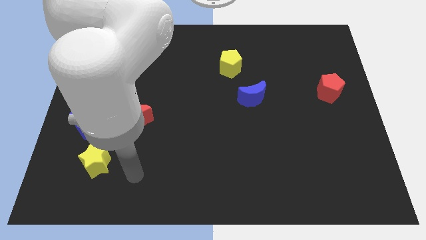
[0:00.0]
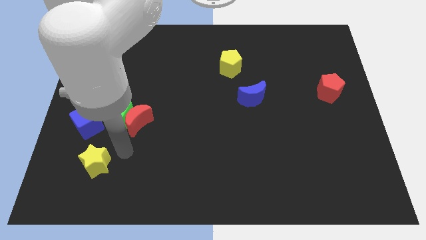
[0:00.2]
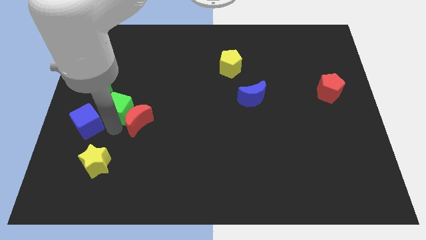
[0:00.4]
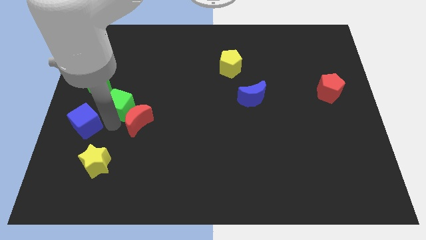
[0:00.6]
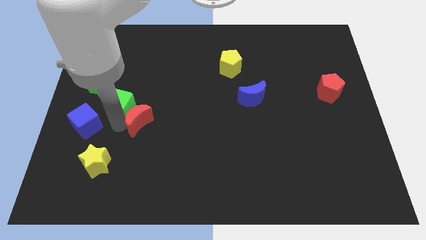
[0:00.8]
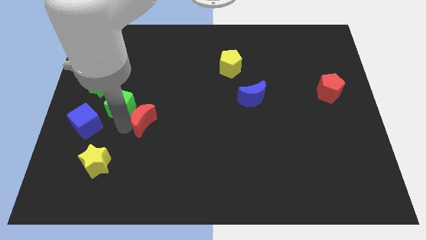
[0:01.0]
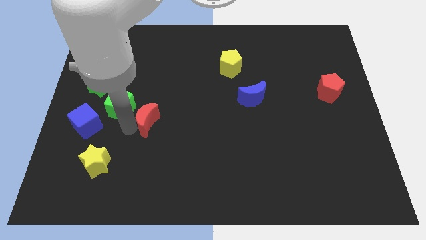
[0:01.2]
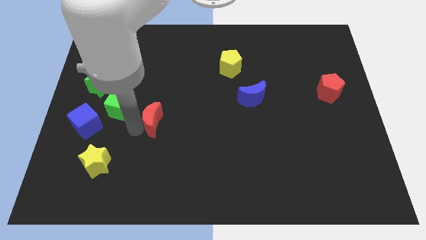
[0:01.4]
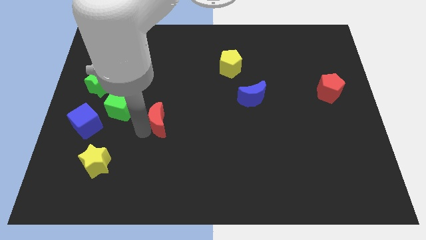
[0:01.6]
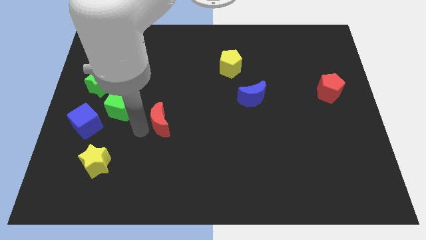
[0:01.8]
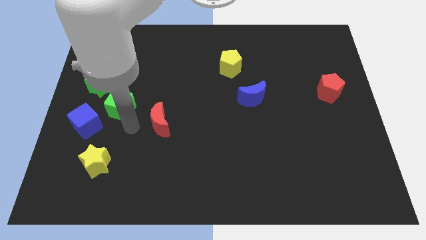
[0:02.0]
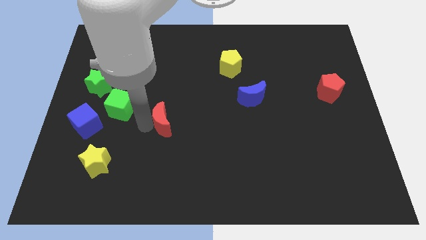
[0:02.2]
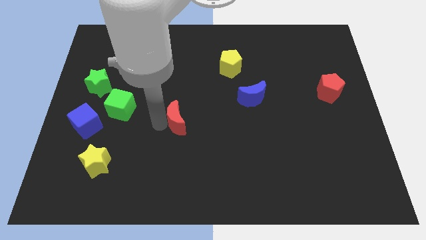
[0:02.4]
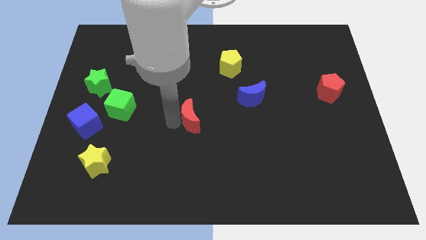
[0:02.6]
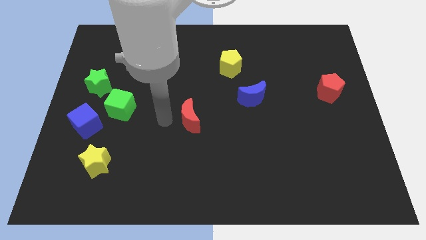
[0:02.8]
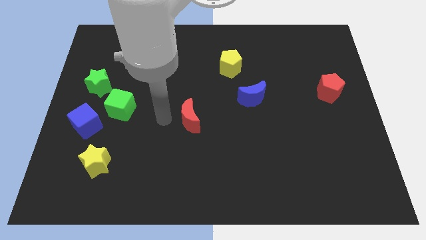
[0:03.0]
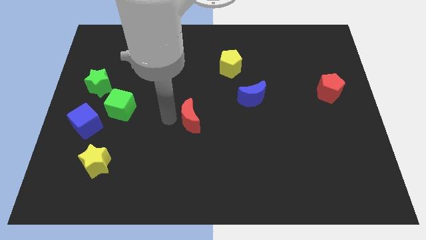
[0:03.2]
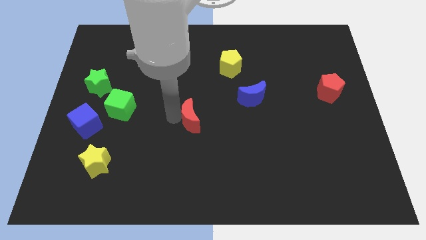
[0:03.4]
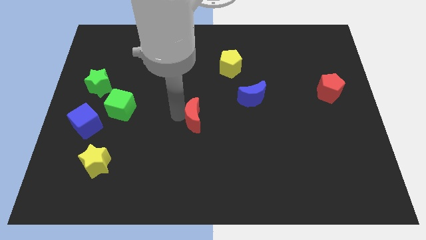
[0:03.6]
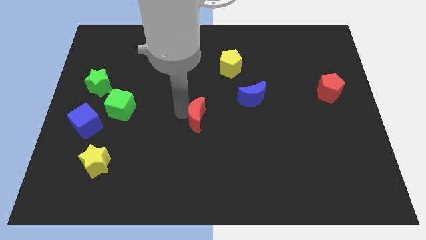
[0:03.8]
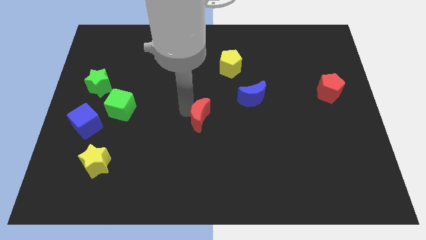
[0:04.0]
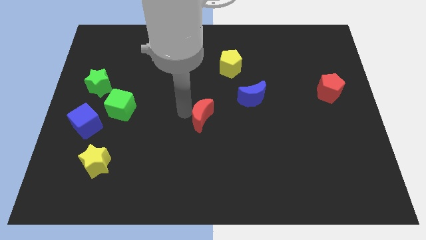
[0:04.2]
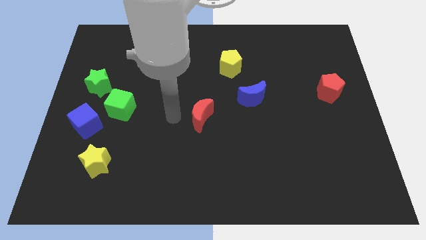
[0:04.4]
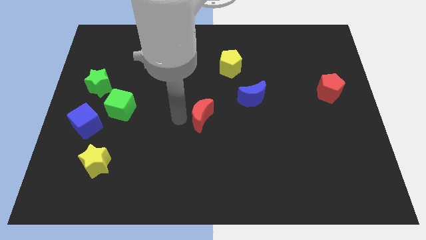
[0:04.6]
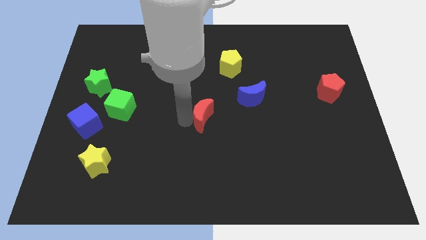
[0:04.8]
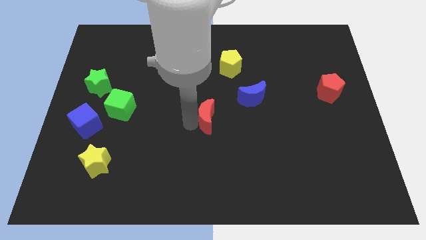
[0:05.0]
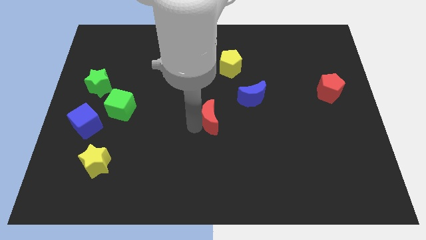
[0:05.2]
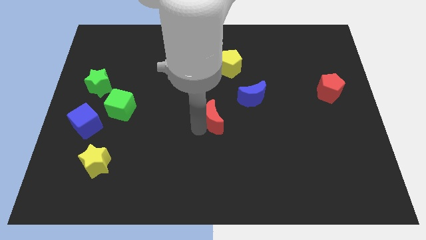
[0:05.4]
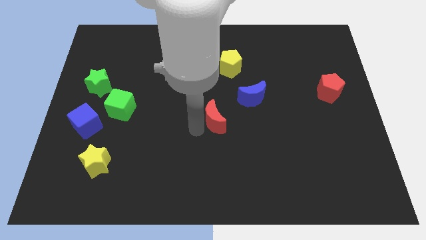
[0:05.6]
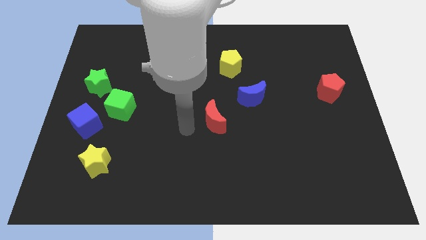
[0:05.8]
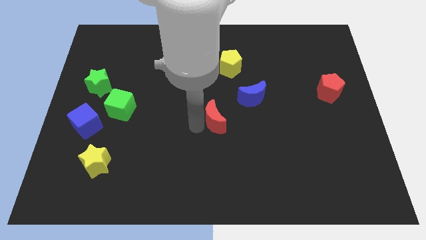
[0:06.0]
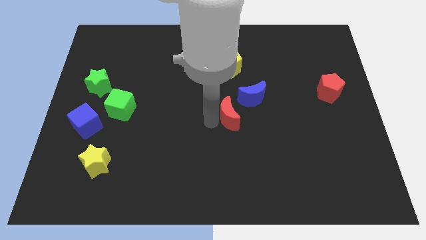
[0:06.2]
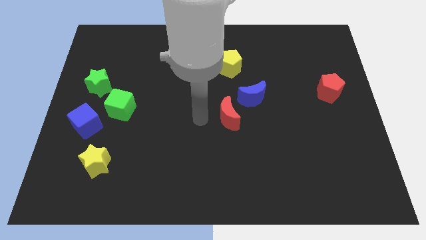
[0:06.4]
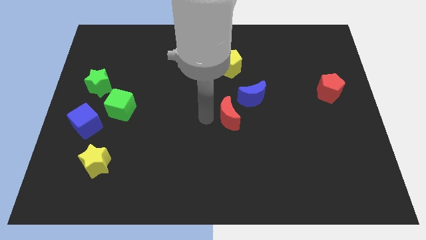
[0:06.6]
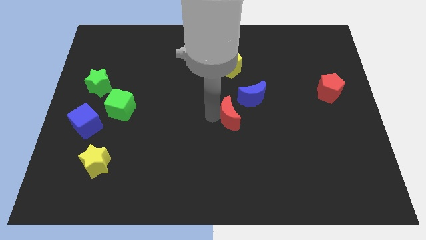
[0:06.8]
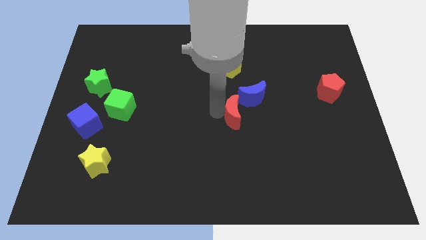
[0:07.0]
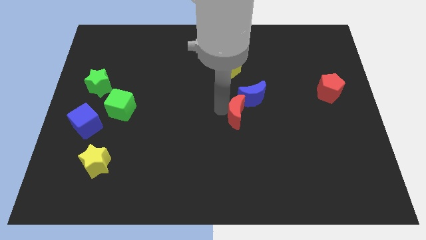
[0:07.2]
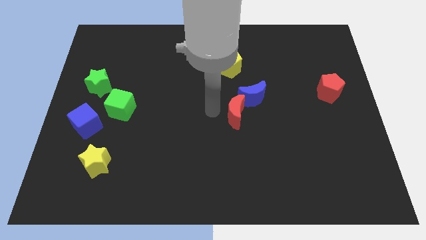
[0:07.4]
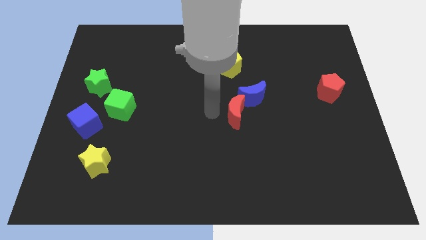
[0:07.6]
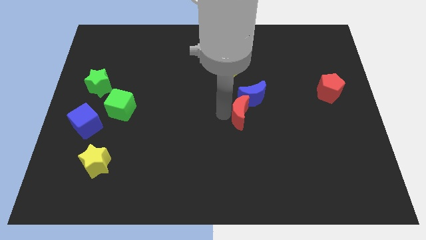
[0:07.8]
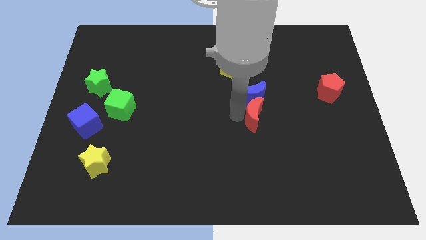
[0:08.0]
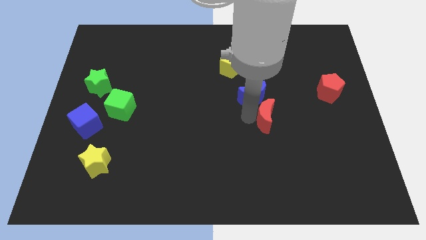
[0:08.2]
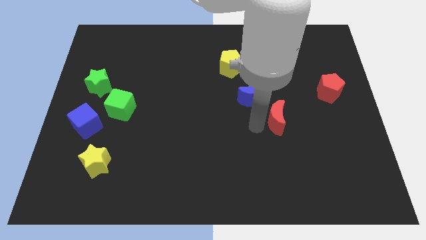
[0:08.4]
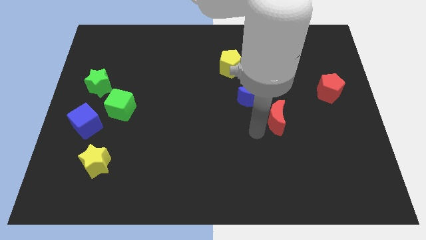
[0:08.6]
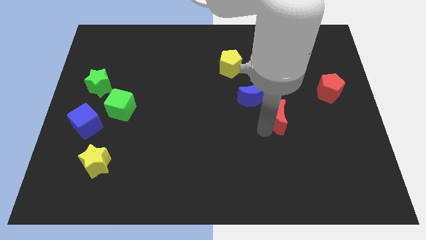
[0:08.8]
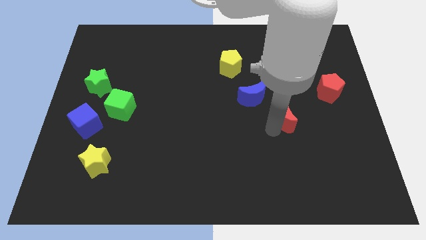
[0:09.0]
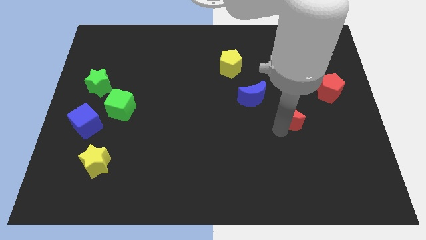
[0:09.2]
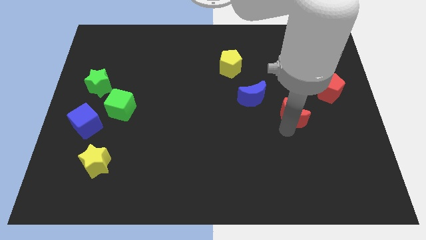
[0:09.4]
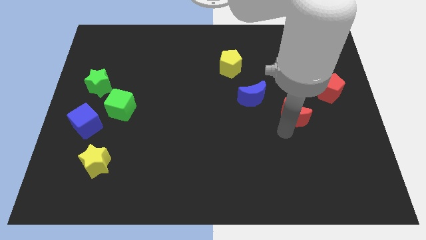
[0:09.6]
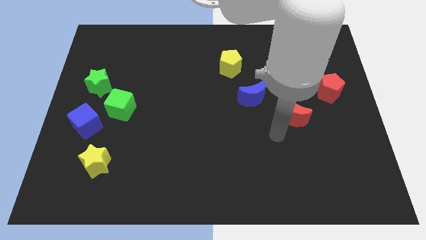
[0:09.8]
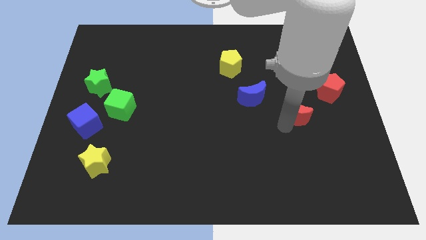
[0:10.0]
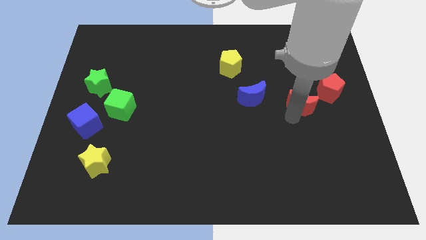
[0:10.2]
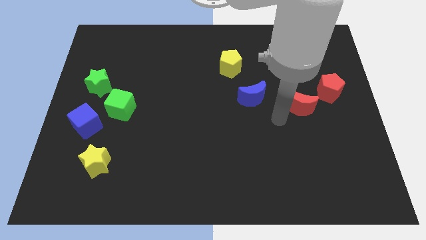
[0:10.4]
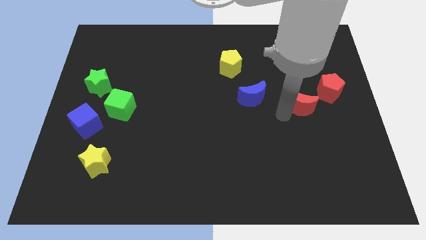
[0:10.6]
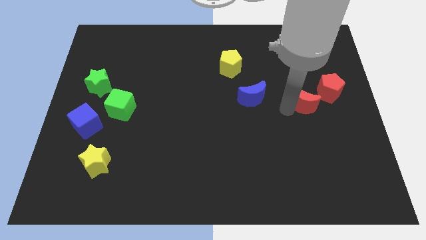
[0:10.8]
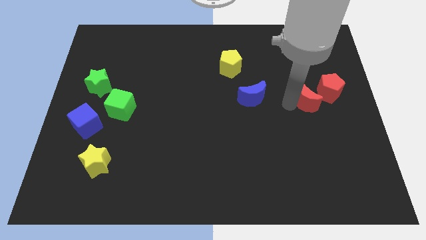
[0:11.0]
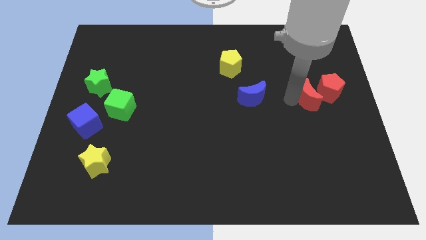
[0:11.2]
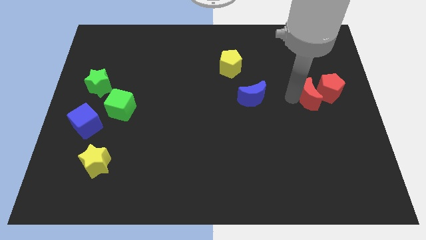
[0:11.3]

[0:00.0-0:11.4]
move the red moon towards the red pentagon

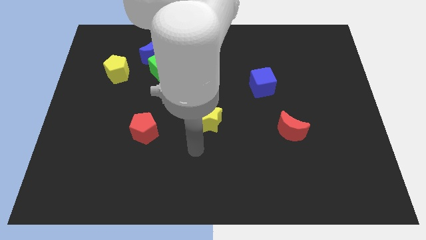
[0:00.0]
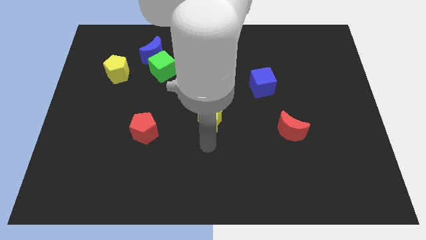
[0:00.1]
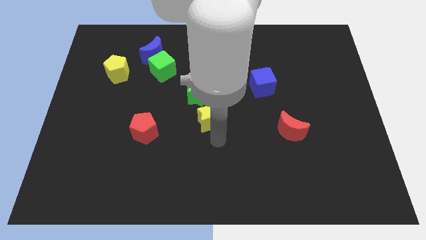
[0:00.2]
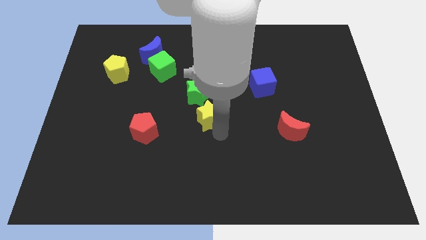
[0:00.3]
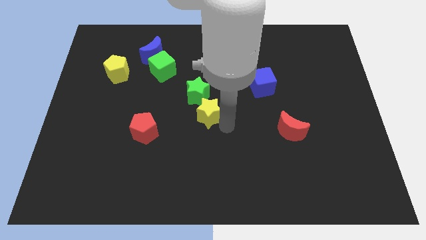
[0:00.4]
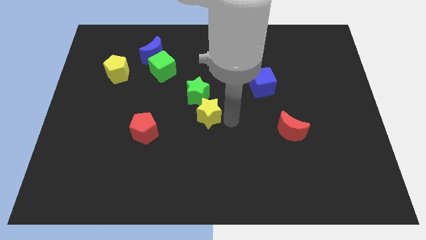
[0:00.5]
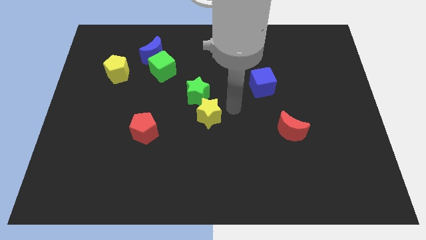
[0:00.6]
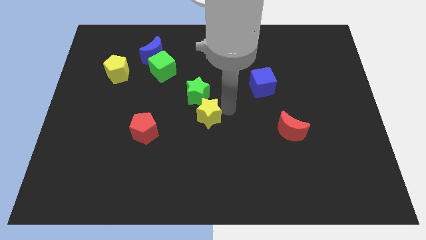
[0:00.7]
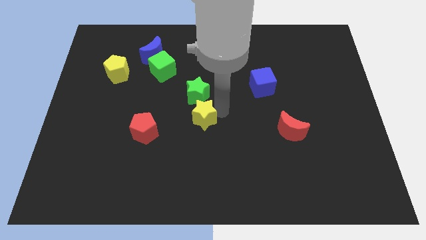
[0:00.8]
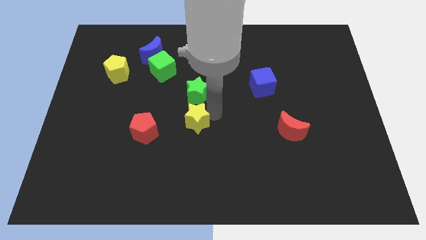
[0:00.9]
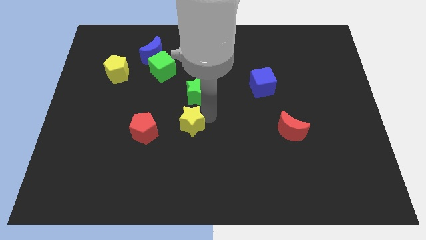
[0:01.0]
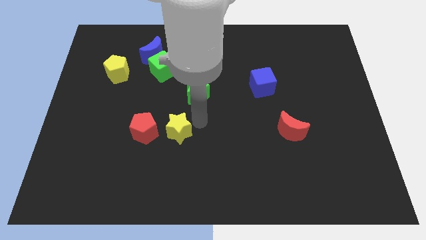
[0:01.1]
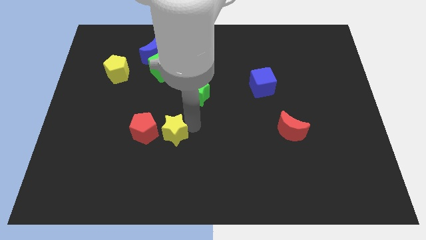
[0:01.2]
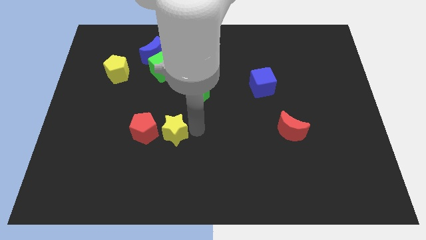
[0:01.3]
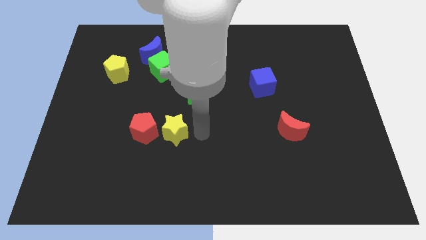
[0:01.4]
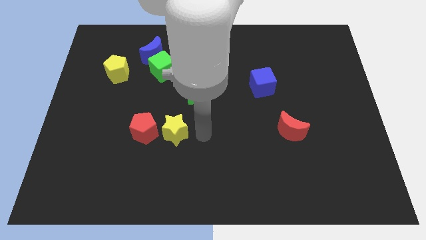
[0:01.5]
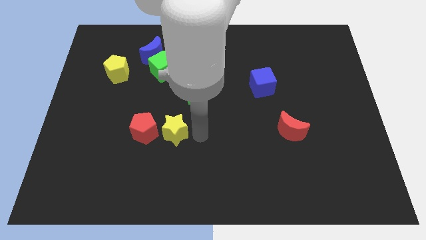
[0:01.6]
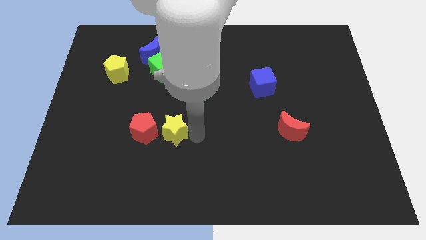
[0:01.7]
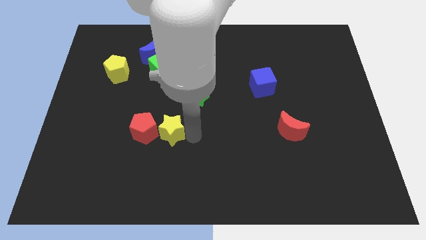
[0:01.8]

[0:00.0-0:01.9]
slide the yellow star towards the red pentagon

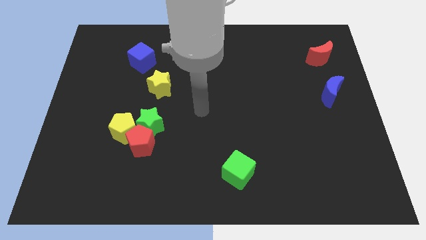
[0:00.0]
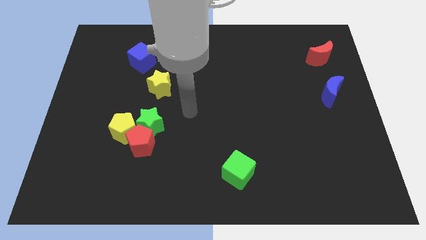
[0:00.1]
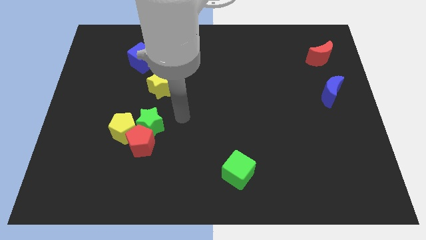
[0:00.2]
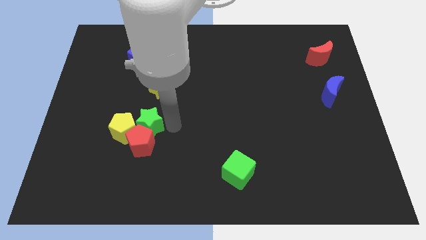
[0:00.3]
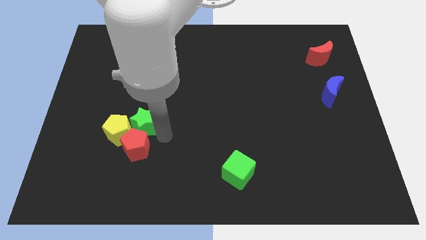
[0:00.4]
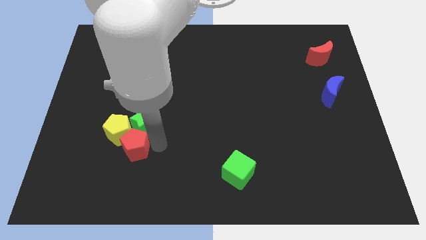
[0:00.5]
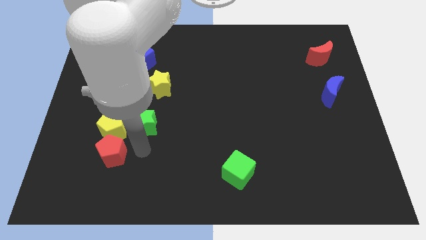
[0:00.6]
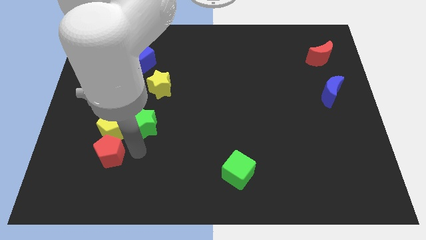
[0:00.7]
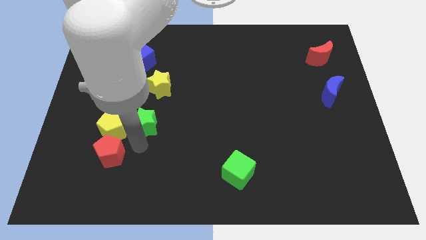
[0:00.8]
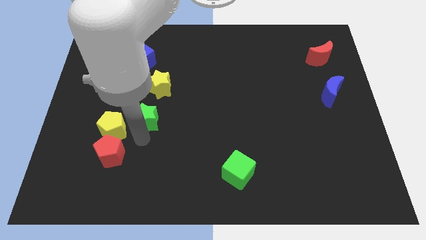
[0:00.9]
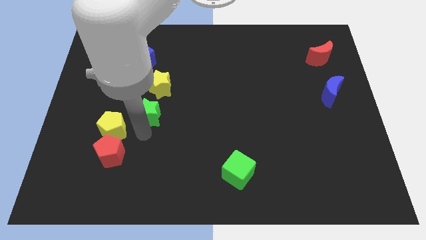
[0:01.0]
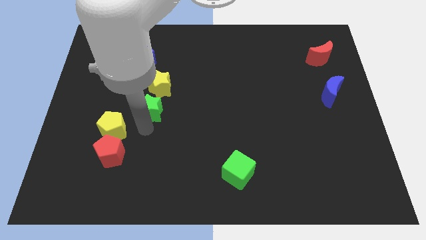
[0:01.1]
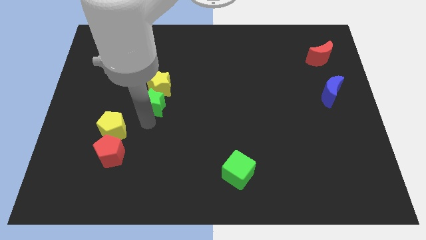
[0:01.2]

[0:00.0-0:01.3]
push the green star to the yellow star
